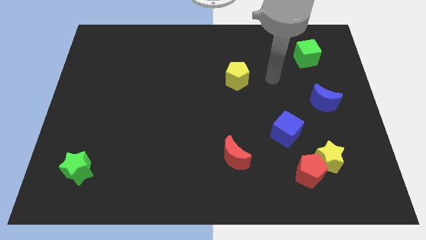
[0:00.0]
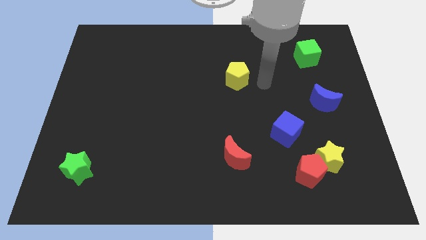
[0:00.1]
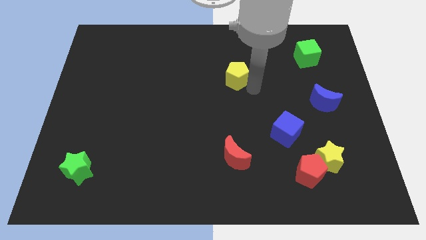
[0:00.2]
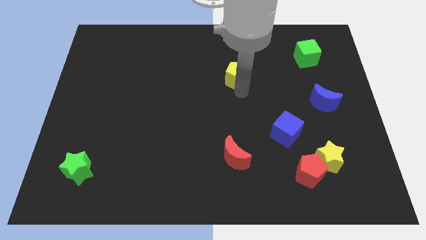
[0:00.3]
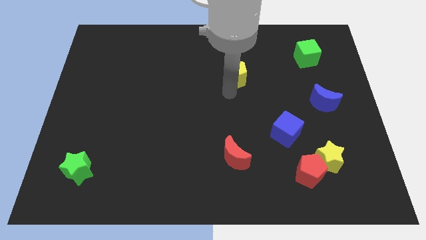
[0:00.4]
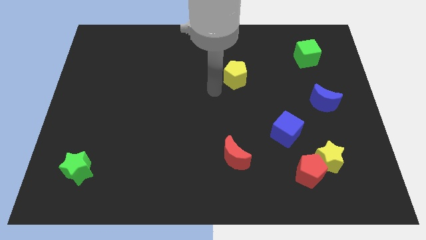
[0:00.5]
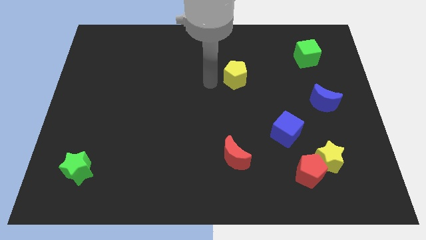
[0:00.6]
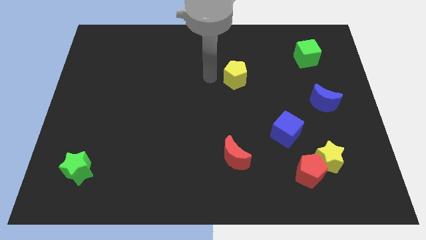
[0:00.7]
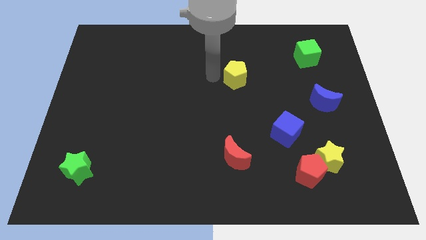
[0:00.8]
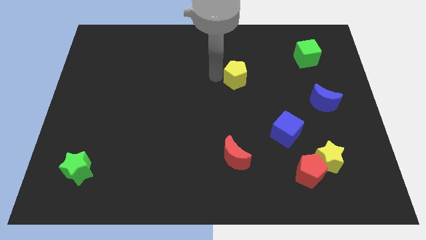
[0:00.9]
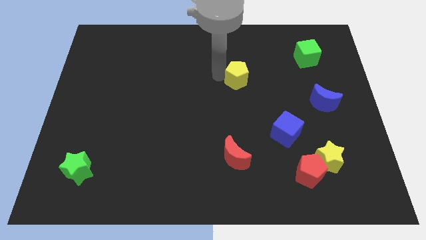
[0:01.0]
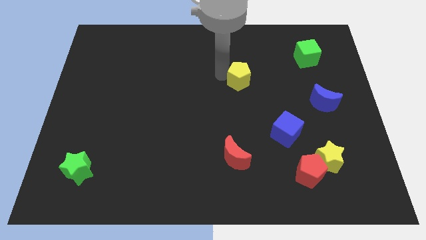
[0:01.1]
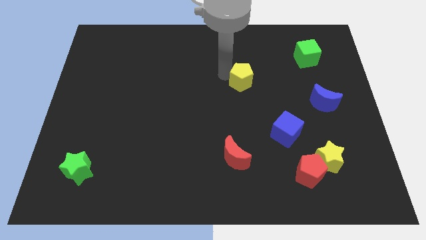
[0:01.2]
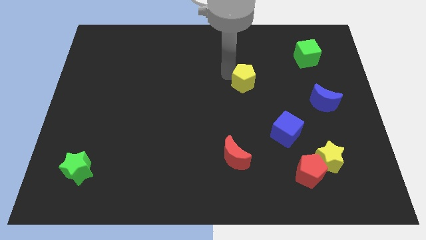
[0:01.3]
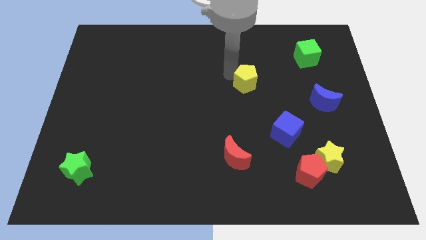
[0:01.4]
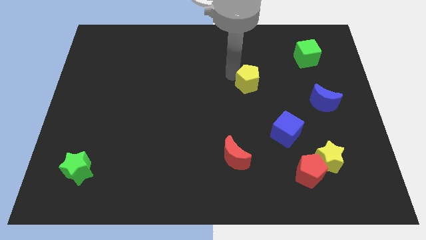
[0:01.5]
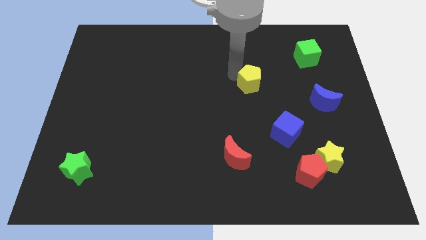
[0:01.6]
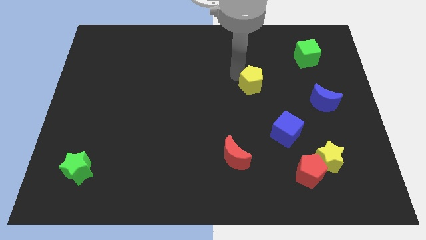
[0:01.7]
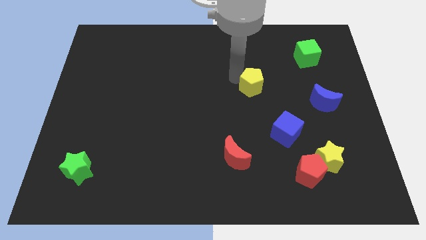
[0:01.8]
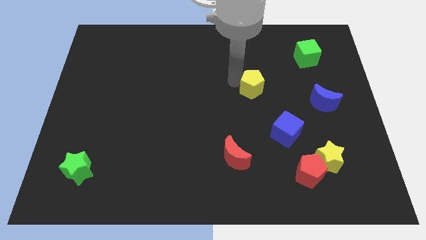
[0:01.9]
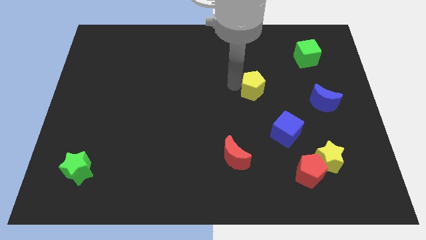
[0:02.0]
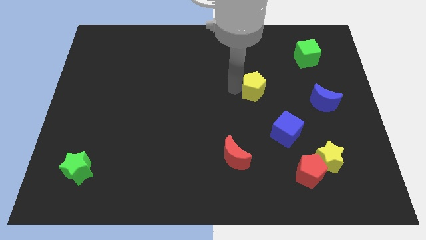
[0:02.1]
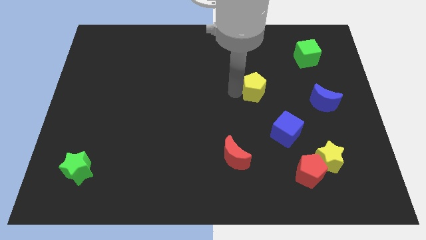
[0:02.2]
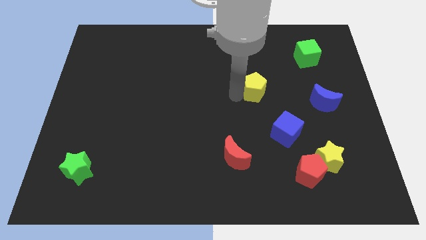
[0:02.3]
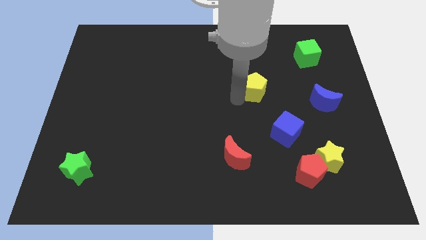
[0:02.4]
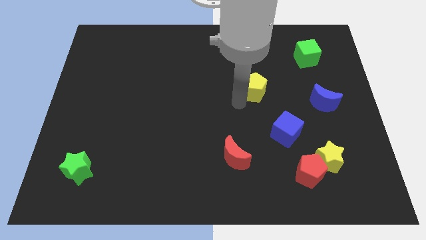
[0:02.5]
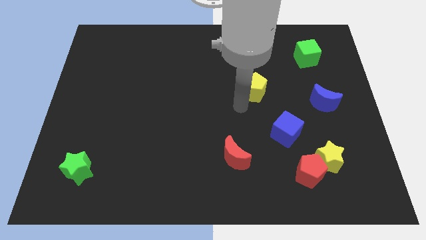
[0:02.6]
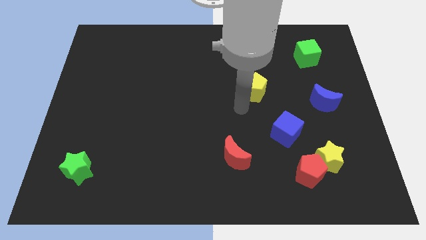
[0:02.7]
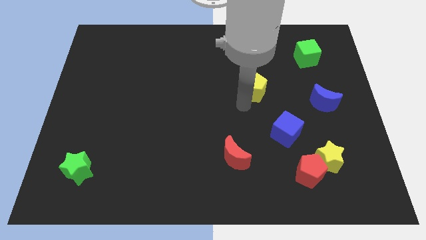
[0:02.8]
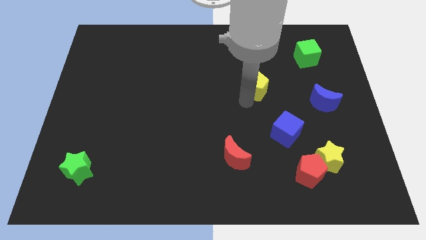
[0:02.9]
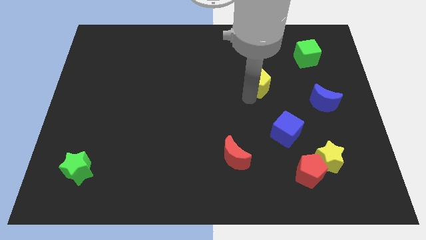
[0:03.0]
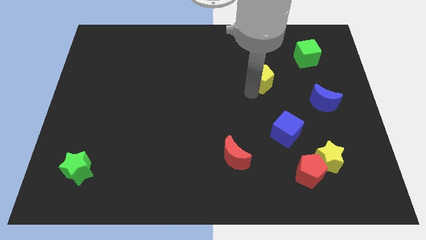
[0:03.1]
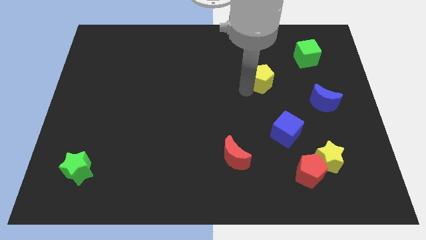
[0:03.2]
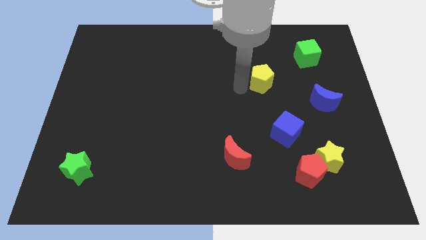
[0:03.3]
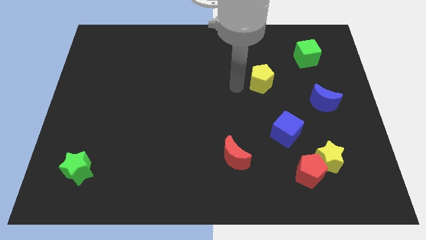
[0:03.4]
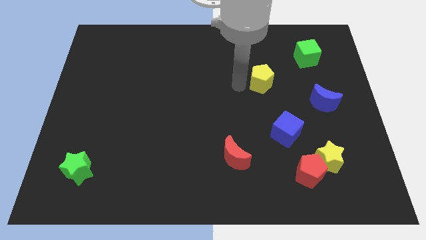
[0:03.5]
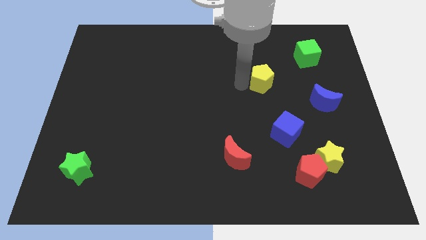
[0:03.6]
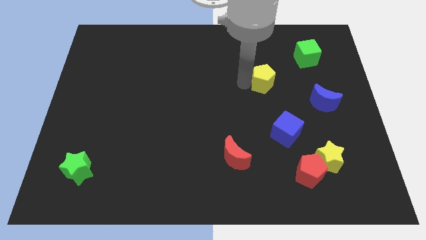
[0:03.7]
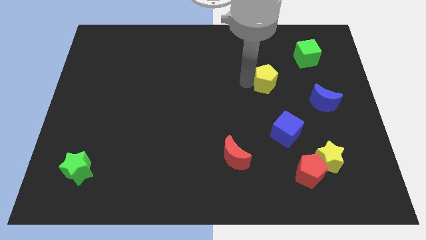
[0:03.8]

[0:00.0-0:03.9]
move the yellow pentagon slightly right

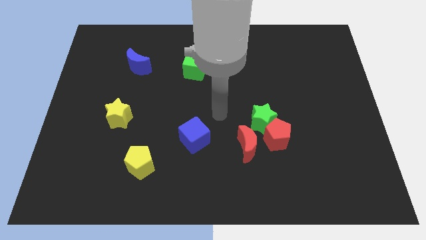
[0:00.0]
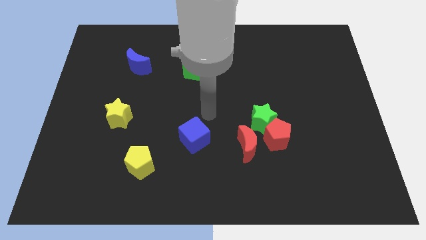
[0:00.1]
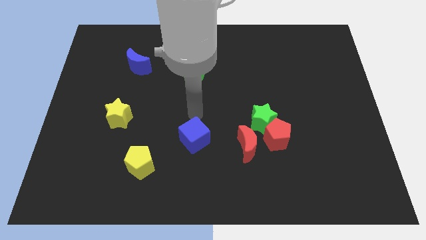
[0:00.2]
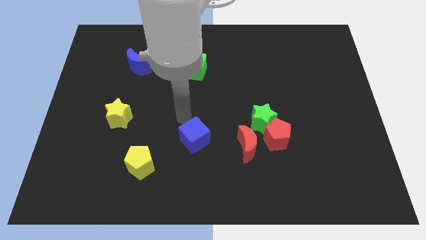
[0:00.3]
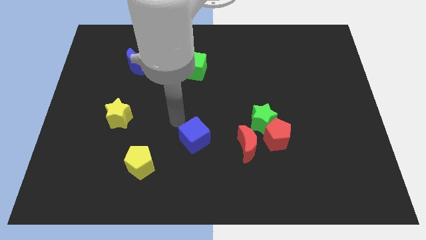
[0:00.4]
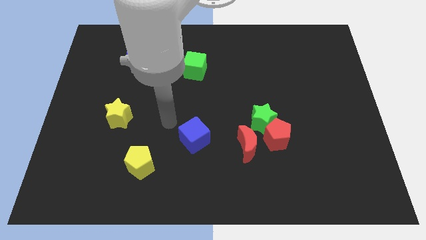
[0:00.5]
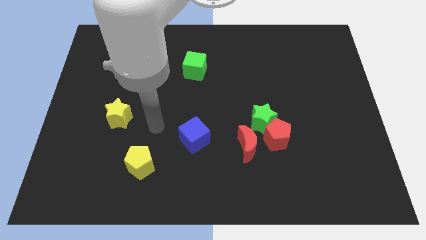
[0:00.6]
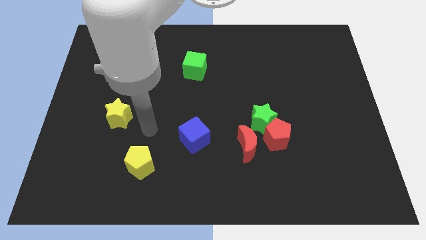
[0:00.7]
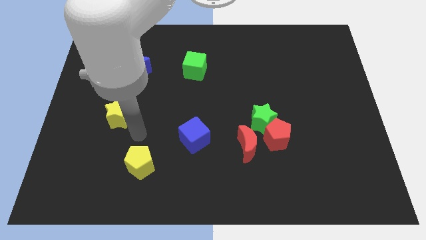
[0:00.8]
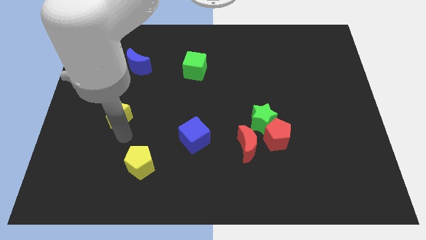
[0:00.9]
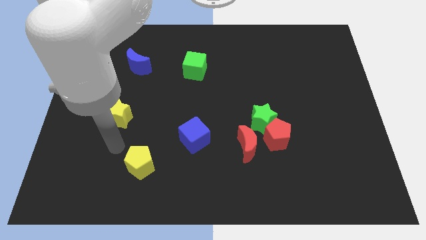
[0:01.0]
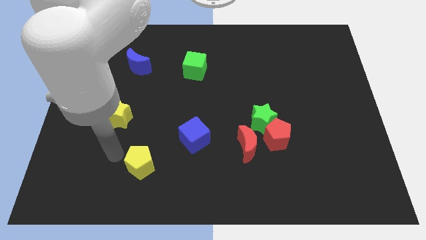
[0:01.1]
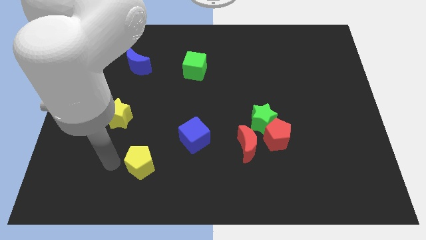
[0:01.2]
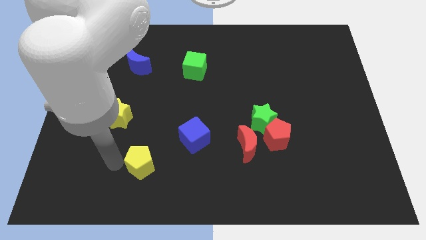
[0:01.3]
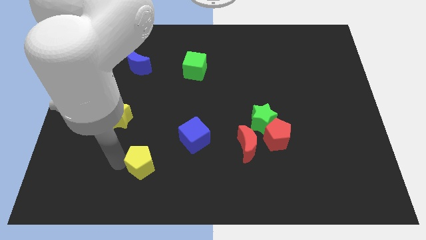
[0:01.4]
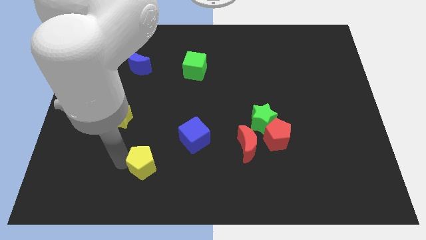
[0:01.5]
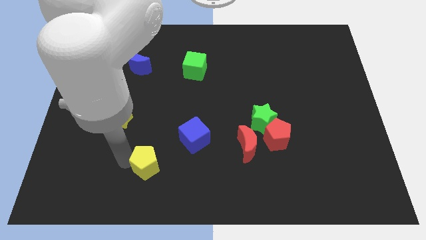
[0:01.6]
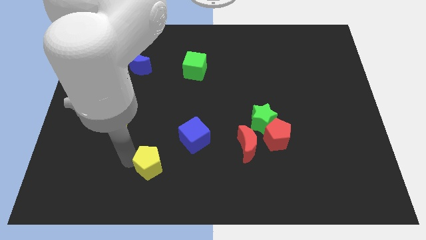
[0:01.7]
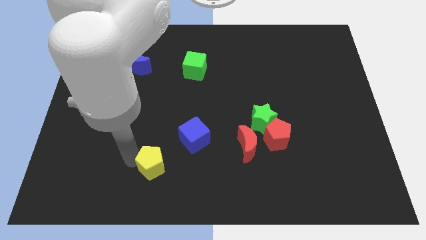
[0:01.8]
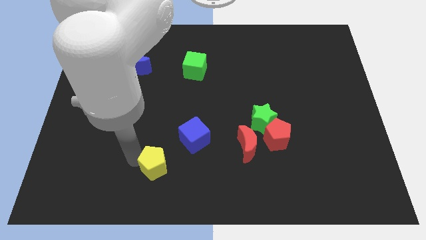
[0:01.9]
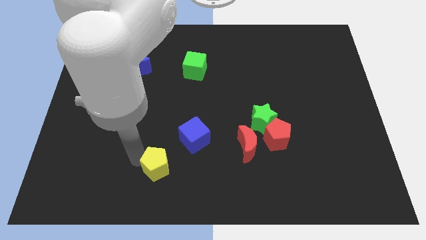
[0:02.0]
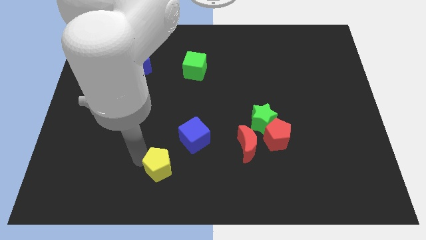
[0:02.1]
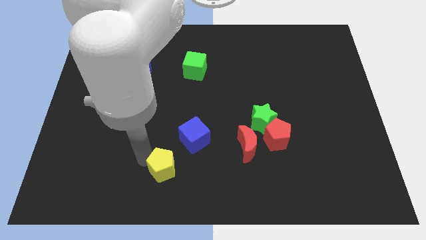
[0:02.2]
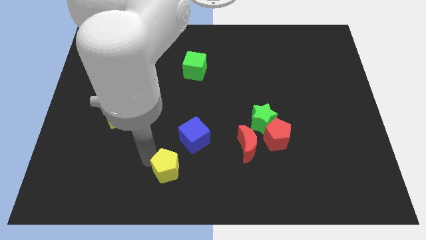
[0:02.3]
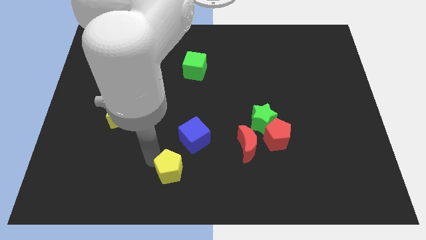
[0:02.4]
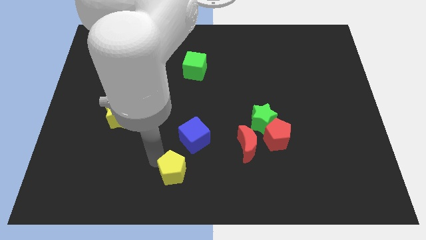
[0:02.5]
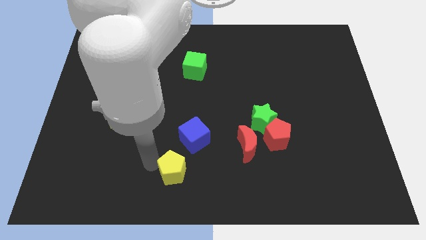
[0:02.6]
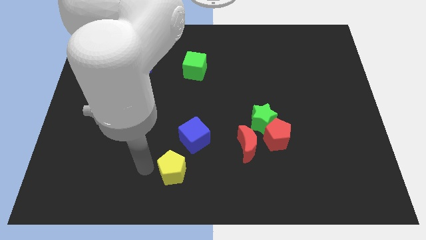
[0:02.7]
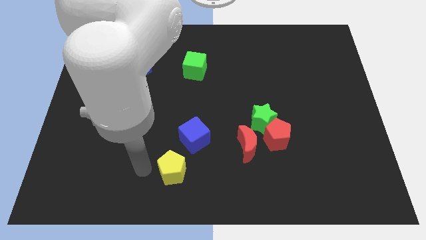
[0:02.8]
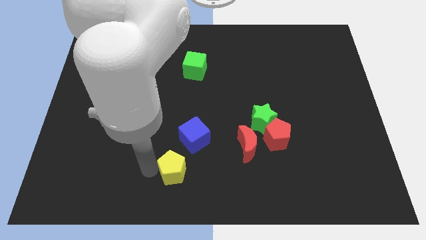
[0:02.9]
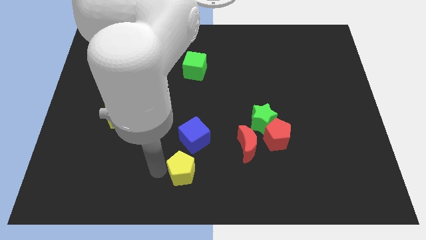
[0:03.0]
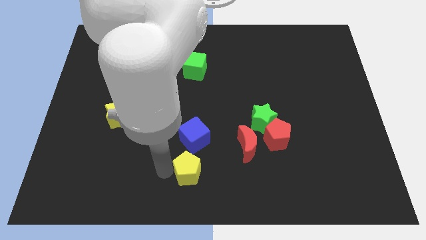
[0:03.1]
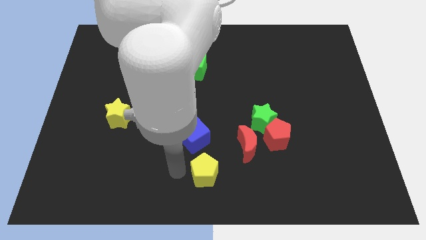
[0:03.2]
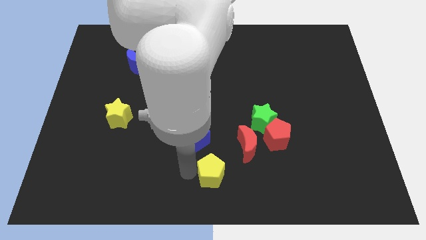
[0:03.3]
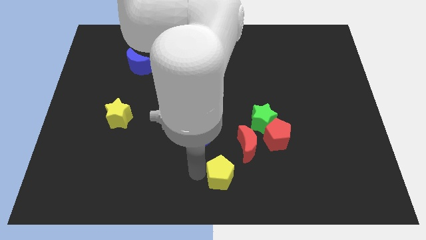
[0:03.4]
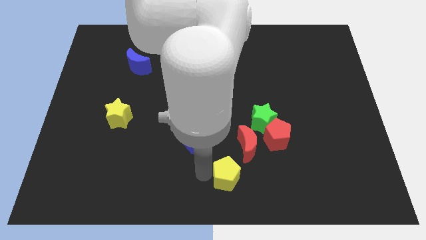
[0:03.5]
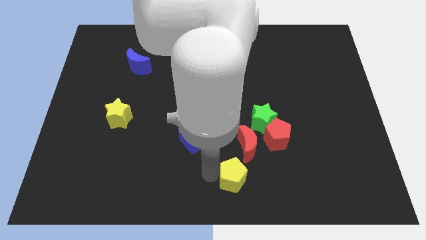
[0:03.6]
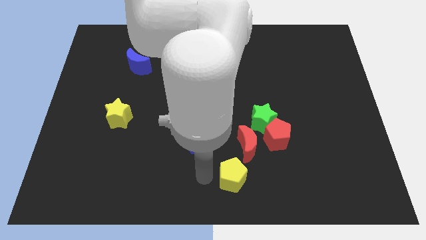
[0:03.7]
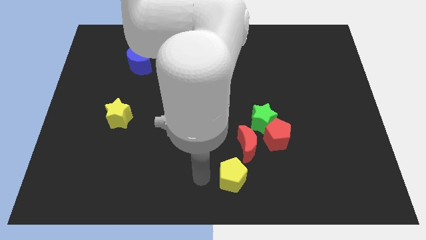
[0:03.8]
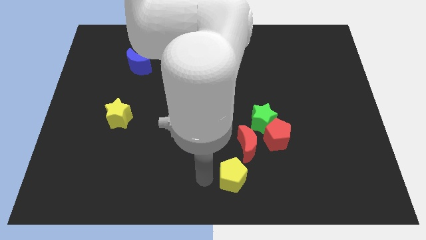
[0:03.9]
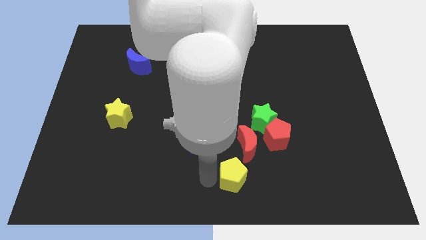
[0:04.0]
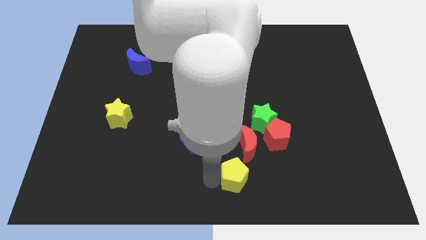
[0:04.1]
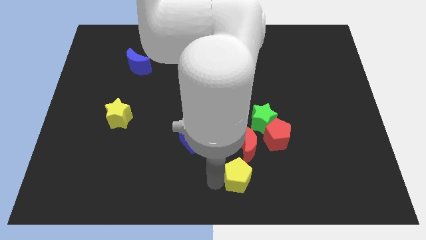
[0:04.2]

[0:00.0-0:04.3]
push the yellow pentagon to the right
